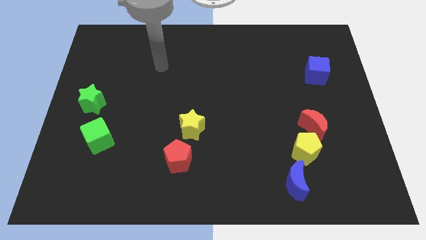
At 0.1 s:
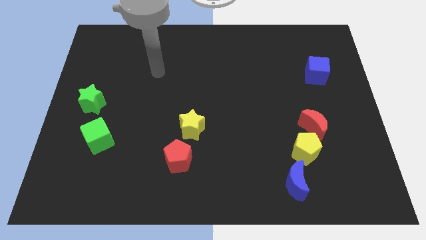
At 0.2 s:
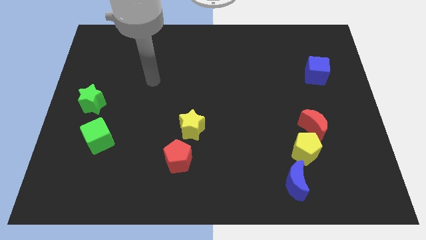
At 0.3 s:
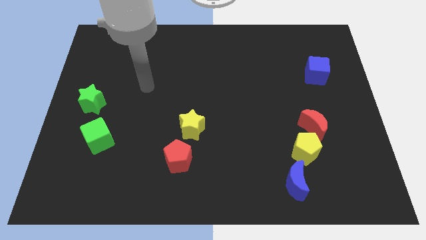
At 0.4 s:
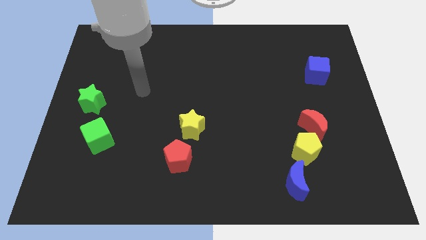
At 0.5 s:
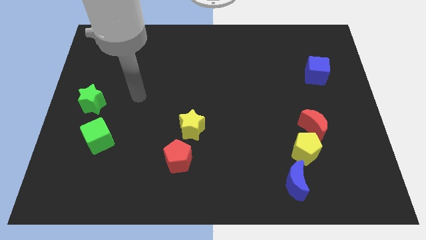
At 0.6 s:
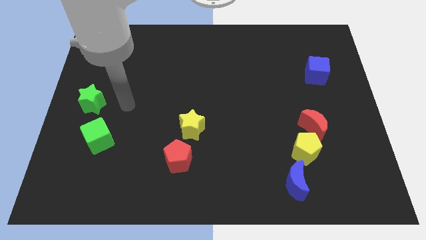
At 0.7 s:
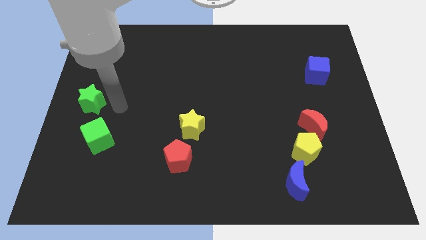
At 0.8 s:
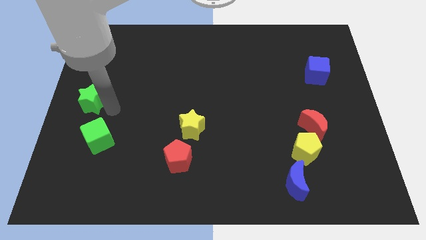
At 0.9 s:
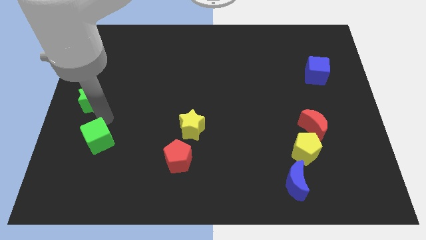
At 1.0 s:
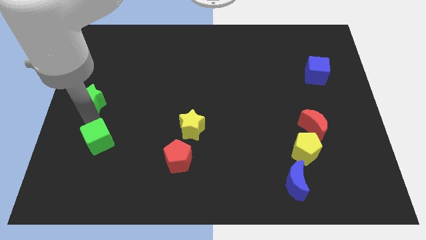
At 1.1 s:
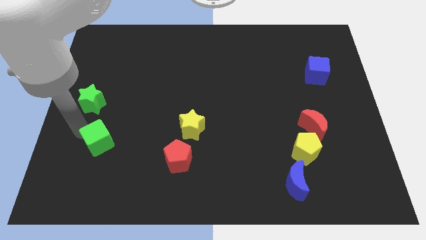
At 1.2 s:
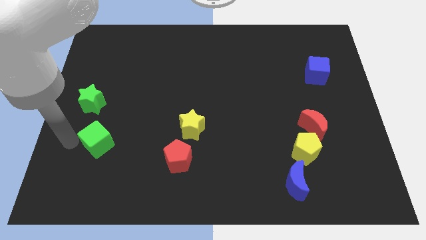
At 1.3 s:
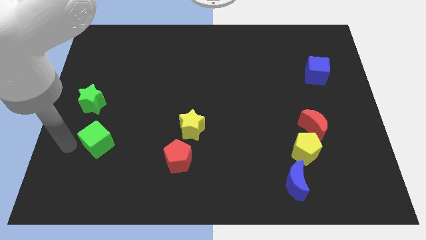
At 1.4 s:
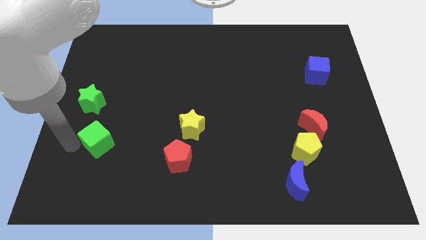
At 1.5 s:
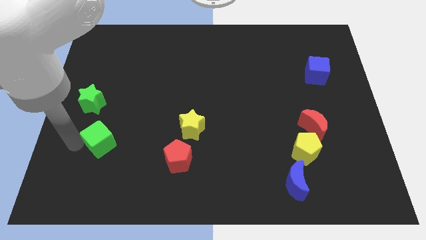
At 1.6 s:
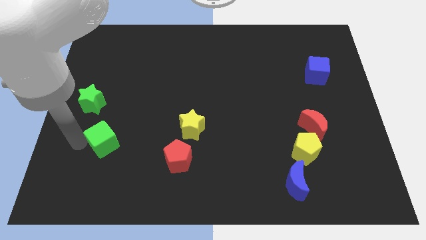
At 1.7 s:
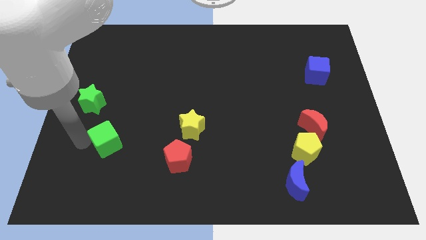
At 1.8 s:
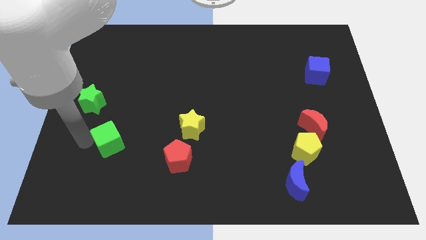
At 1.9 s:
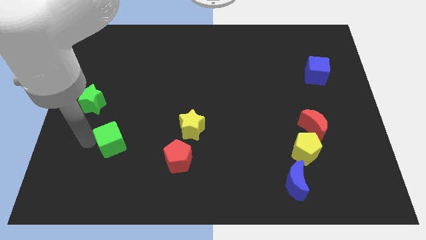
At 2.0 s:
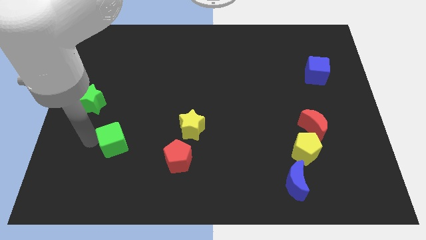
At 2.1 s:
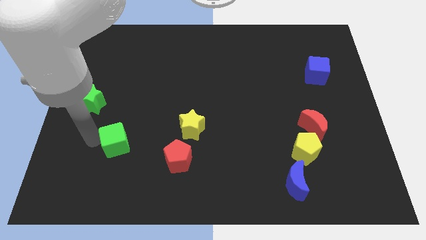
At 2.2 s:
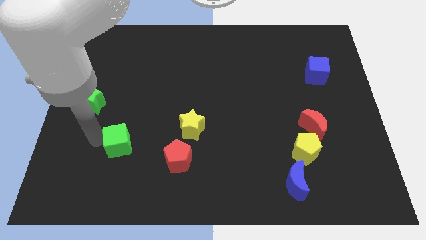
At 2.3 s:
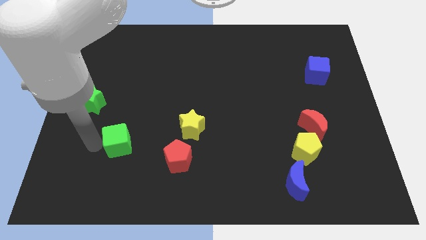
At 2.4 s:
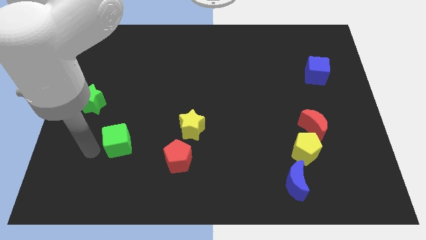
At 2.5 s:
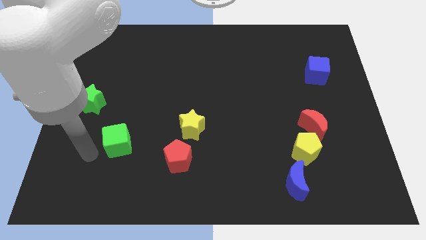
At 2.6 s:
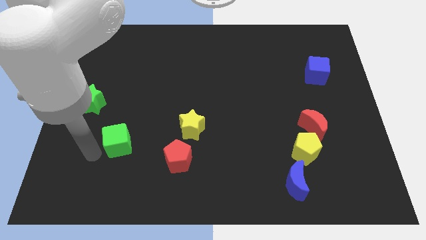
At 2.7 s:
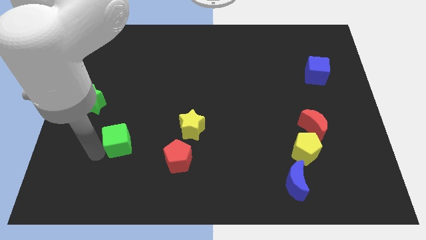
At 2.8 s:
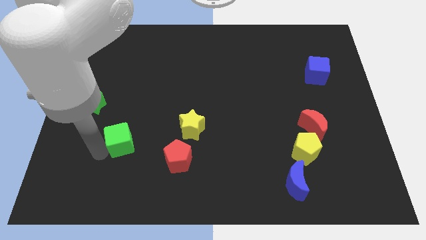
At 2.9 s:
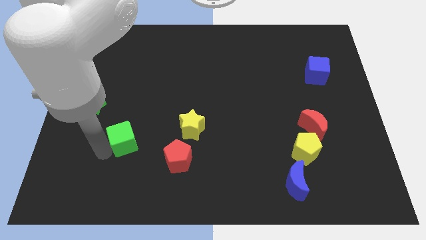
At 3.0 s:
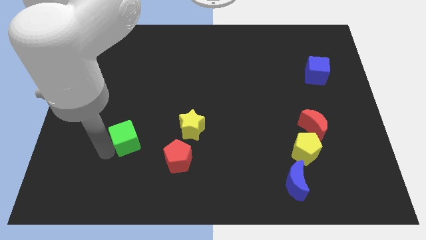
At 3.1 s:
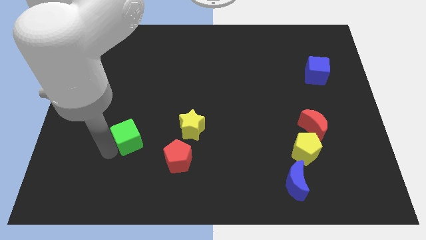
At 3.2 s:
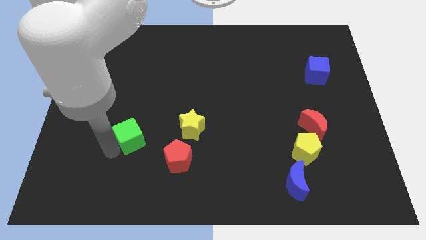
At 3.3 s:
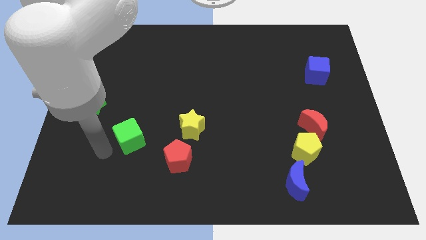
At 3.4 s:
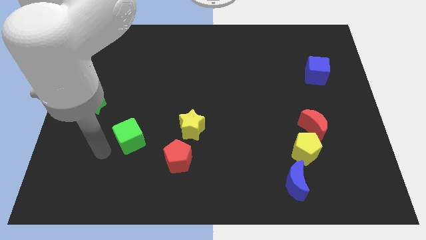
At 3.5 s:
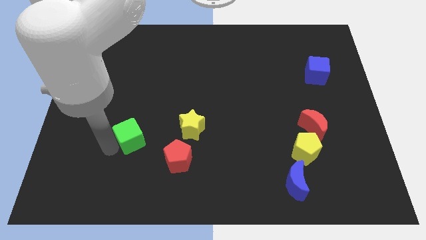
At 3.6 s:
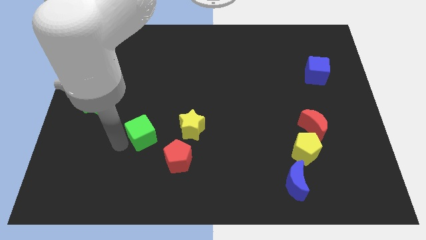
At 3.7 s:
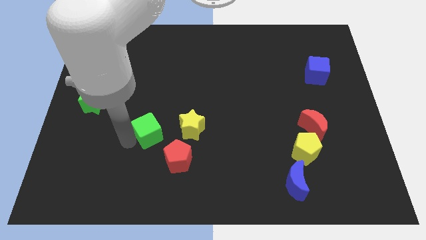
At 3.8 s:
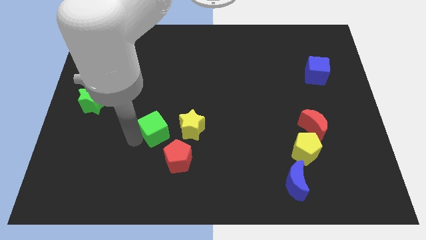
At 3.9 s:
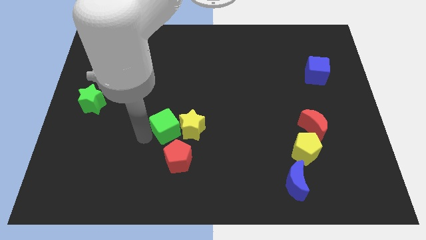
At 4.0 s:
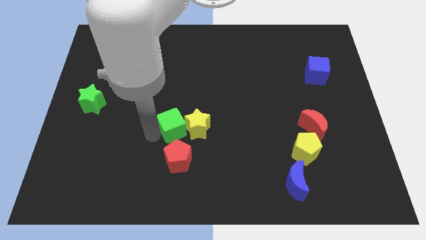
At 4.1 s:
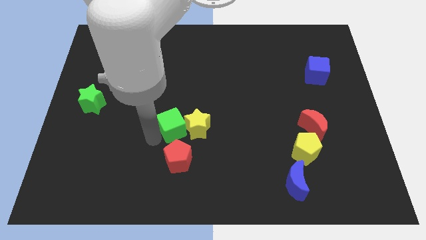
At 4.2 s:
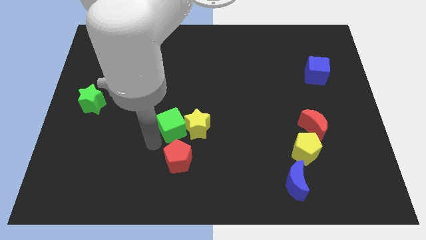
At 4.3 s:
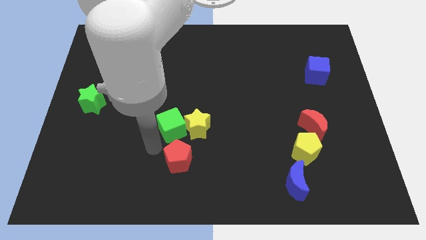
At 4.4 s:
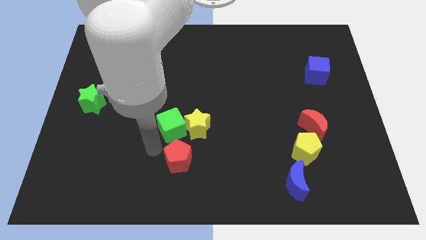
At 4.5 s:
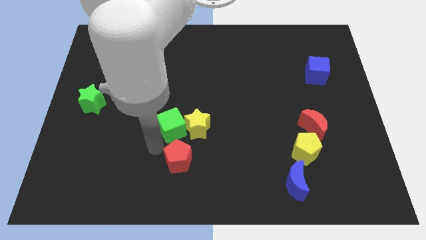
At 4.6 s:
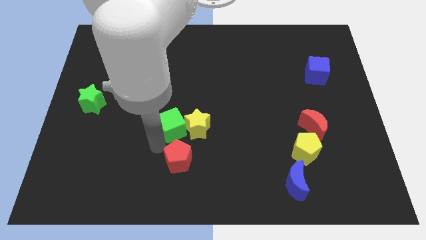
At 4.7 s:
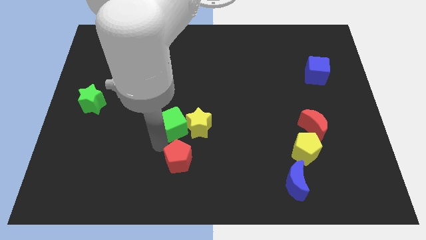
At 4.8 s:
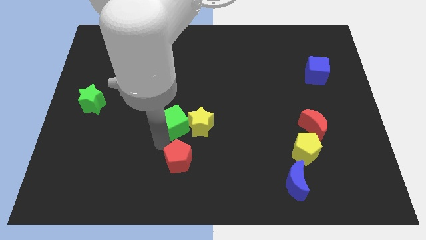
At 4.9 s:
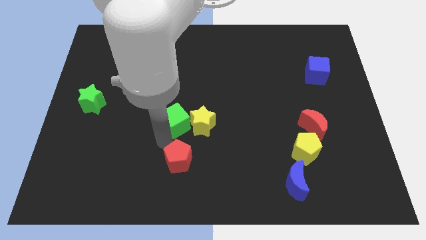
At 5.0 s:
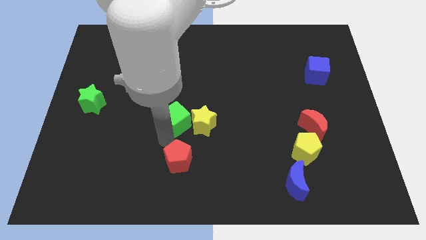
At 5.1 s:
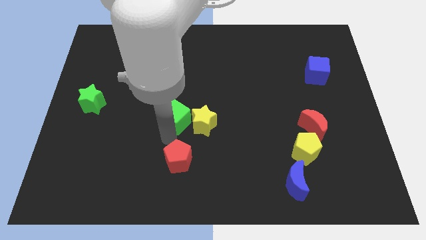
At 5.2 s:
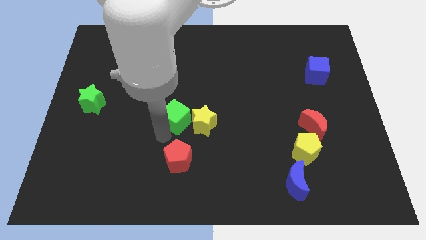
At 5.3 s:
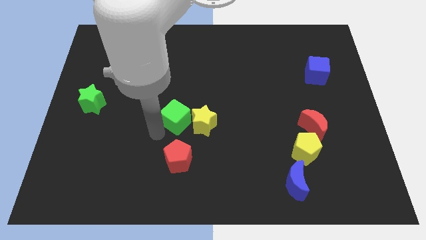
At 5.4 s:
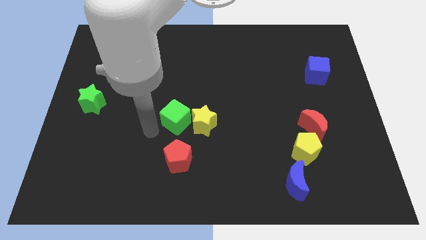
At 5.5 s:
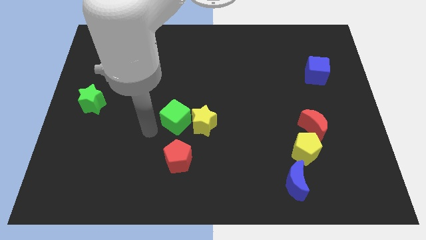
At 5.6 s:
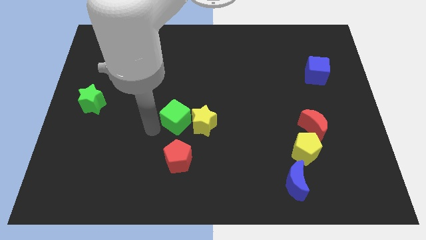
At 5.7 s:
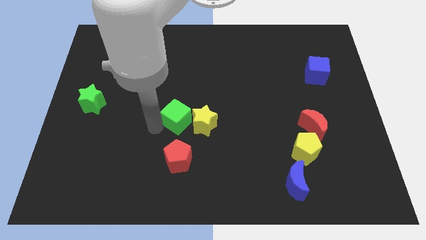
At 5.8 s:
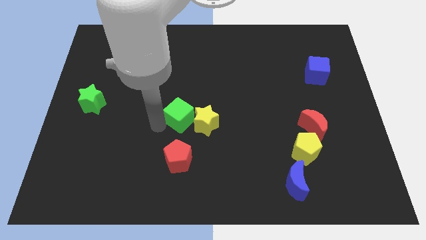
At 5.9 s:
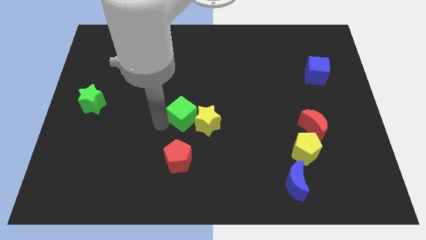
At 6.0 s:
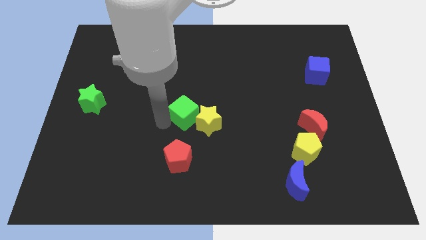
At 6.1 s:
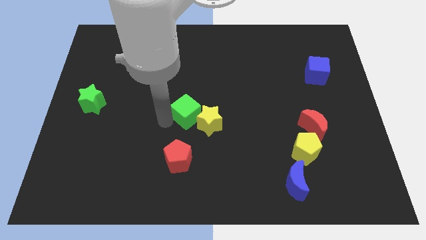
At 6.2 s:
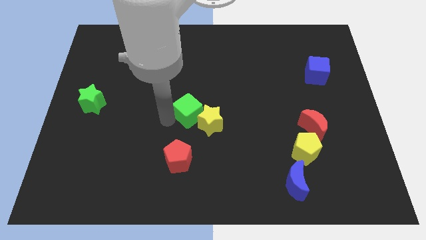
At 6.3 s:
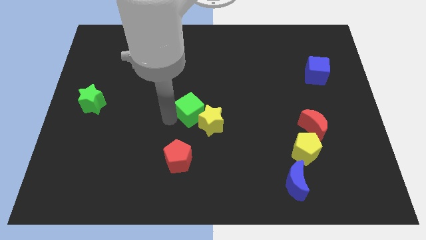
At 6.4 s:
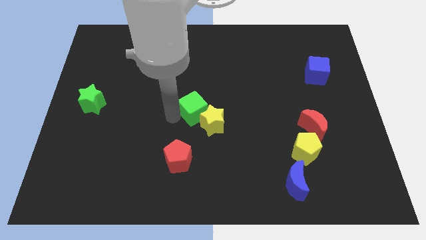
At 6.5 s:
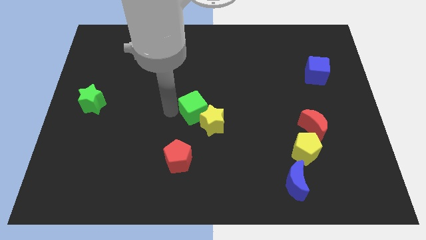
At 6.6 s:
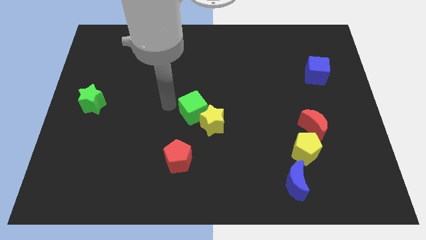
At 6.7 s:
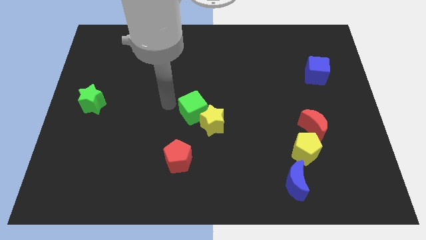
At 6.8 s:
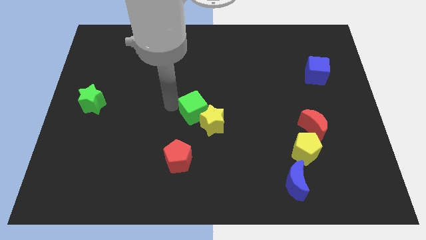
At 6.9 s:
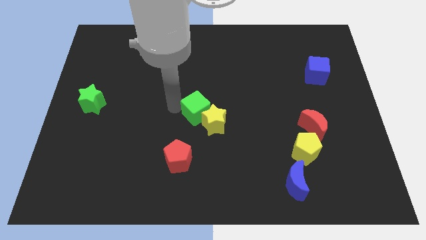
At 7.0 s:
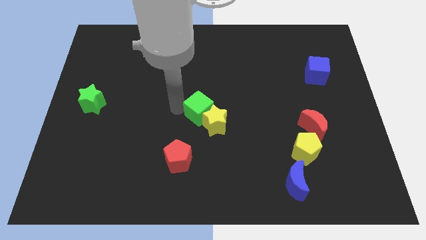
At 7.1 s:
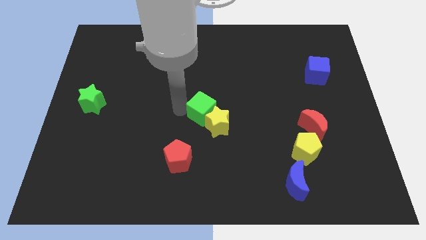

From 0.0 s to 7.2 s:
push the green cube to the right

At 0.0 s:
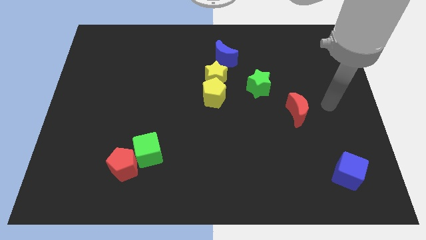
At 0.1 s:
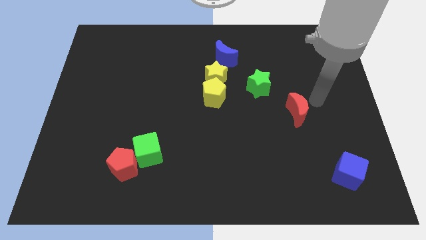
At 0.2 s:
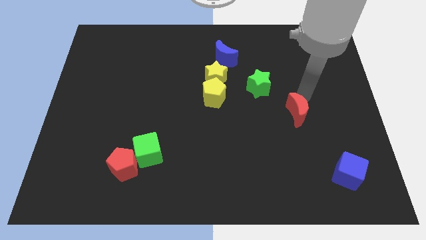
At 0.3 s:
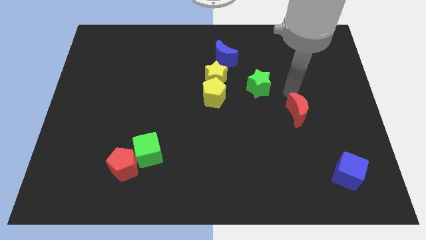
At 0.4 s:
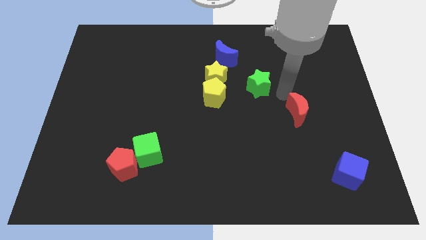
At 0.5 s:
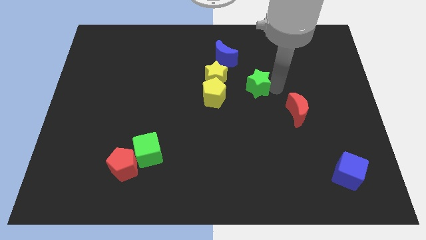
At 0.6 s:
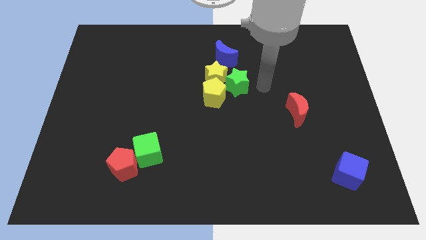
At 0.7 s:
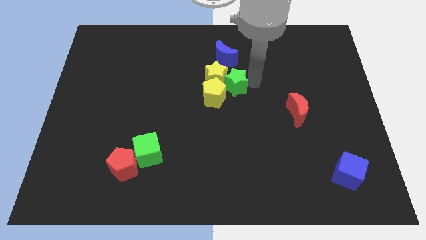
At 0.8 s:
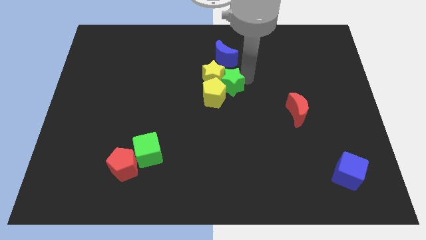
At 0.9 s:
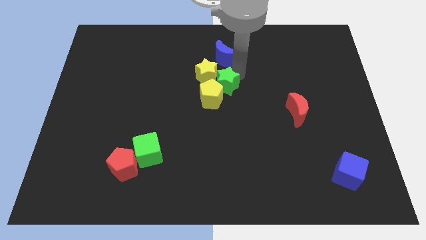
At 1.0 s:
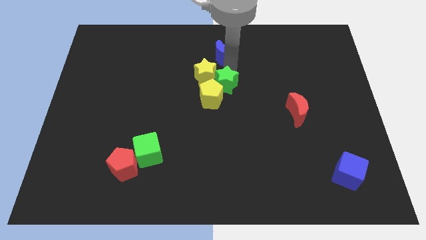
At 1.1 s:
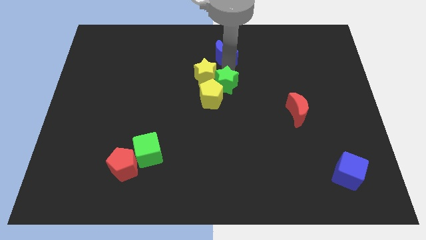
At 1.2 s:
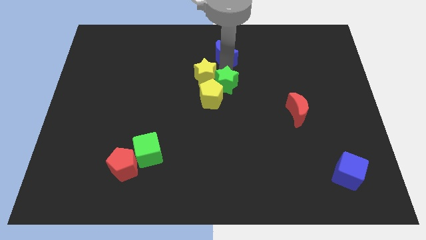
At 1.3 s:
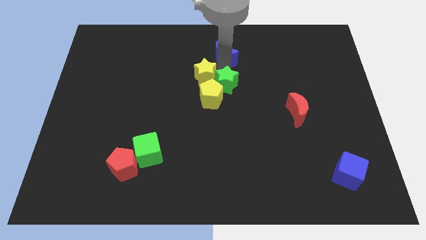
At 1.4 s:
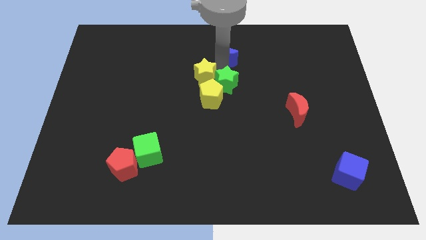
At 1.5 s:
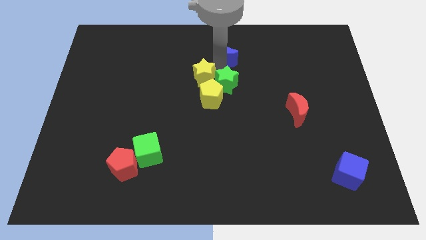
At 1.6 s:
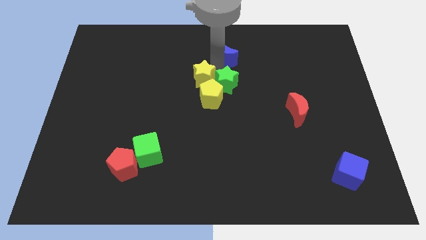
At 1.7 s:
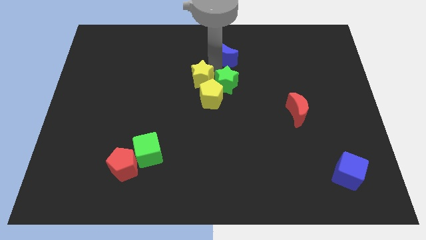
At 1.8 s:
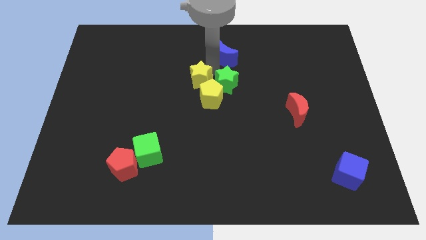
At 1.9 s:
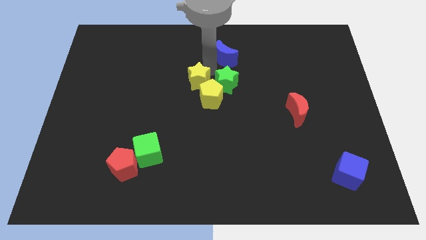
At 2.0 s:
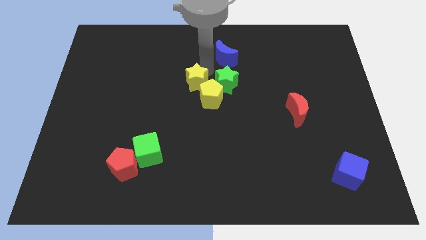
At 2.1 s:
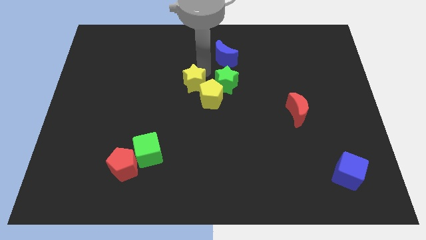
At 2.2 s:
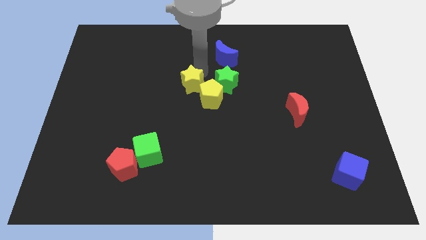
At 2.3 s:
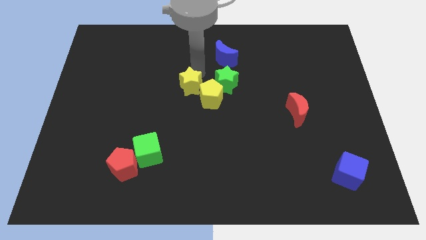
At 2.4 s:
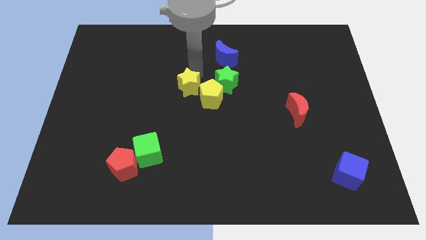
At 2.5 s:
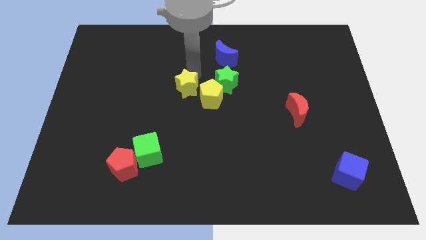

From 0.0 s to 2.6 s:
slightly push the yellow star left
